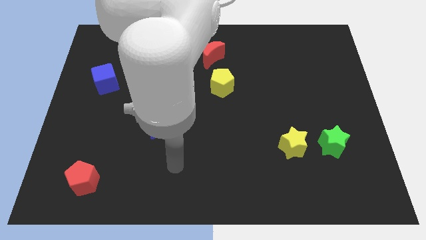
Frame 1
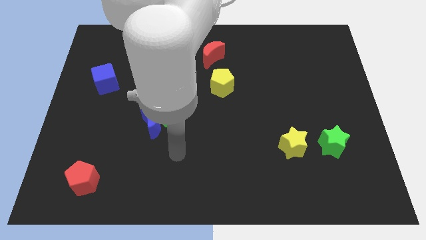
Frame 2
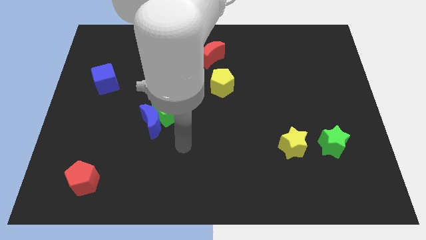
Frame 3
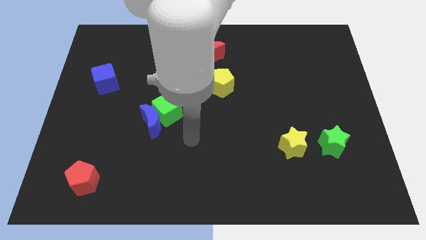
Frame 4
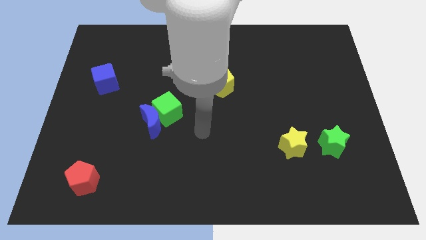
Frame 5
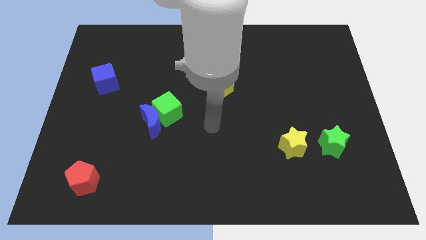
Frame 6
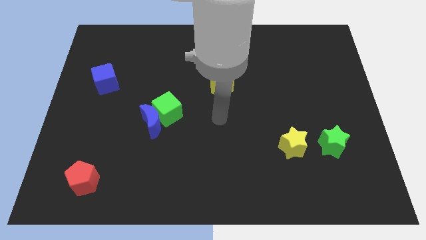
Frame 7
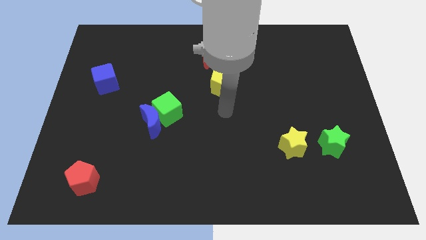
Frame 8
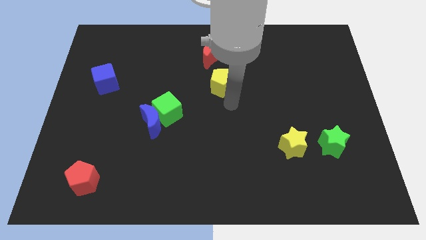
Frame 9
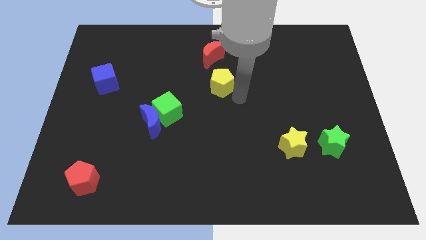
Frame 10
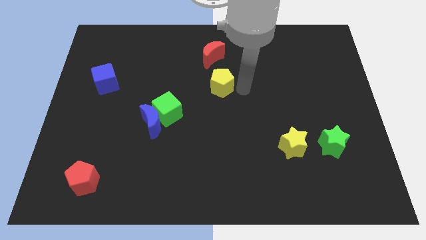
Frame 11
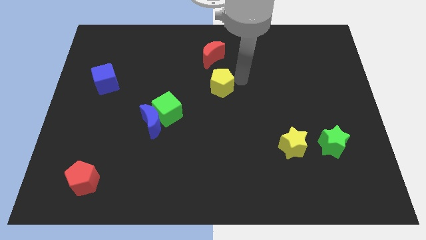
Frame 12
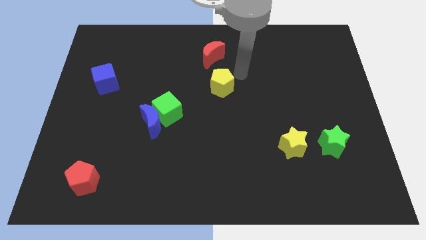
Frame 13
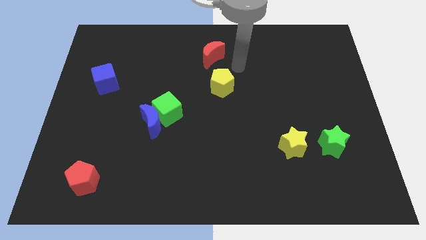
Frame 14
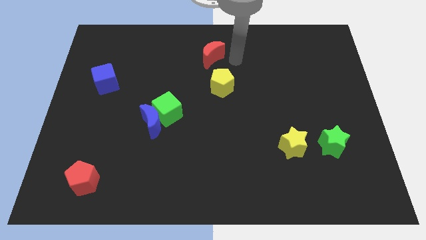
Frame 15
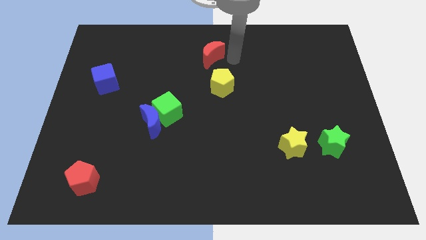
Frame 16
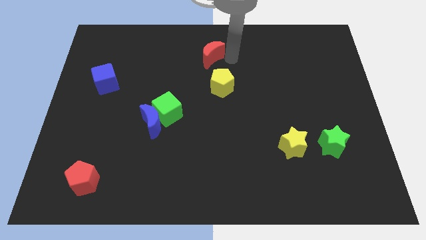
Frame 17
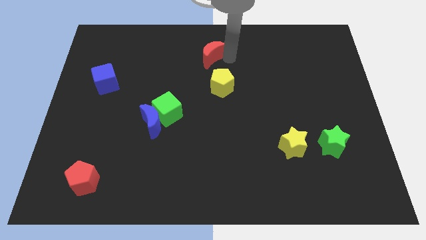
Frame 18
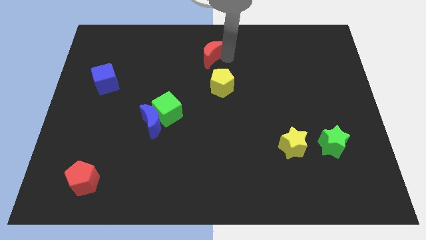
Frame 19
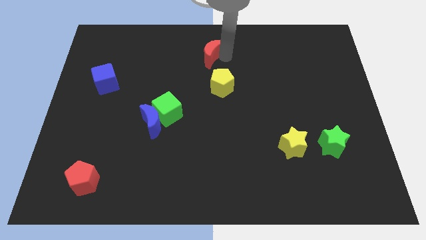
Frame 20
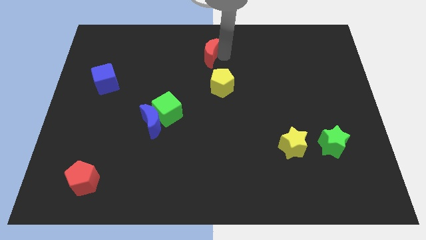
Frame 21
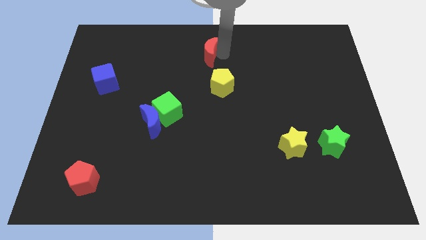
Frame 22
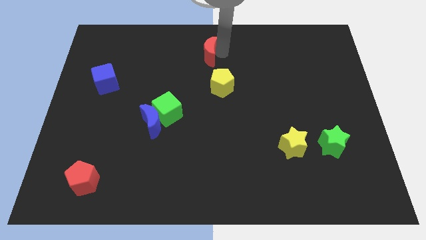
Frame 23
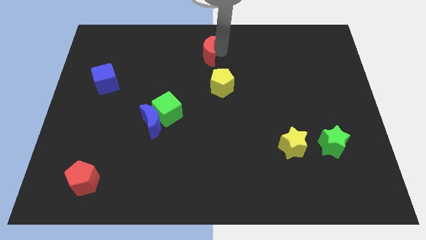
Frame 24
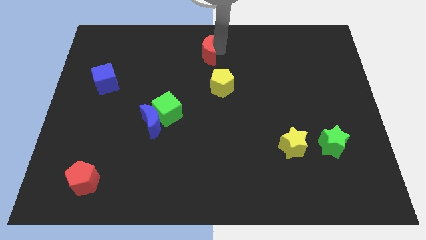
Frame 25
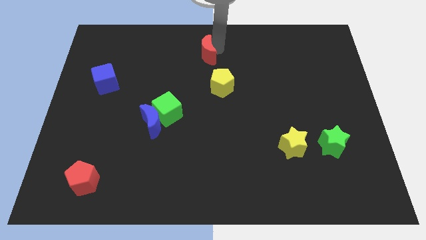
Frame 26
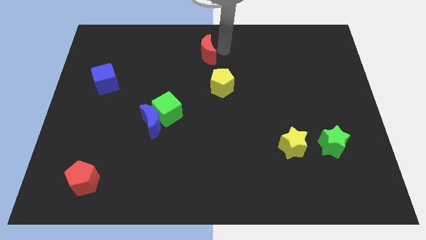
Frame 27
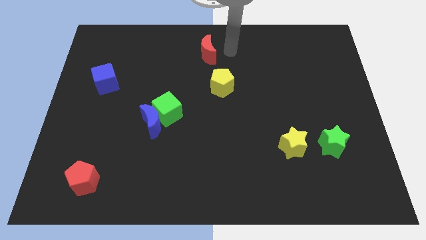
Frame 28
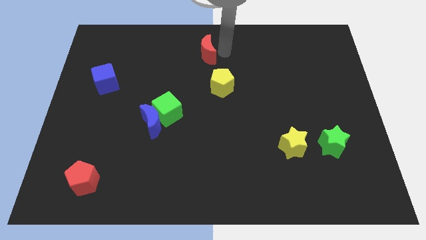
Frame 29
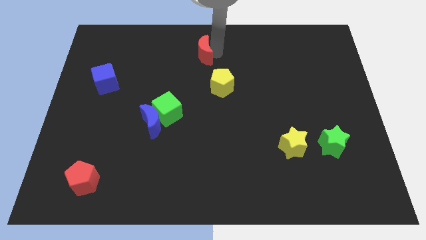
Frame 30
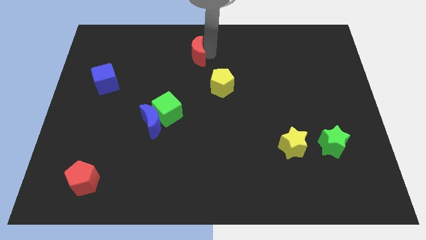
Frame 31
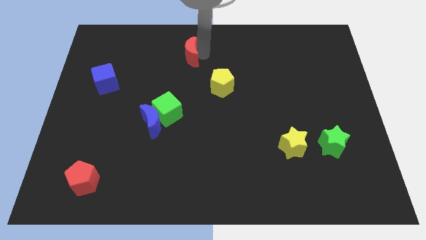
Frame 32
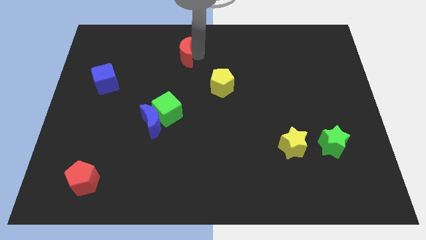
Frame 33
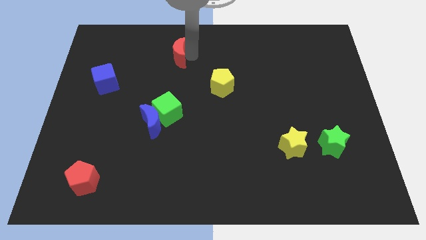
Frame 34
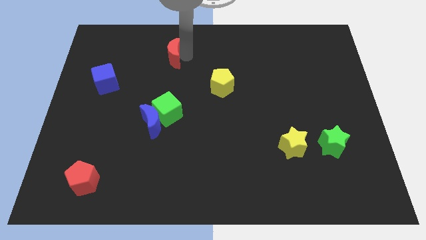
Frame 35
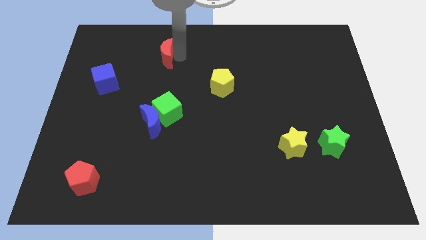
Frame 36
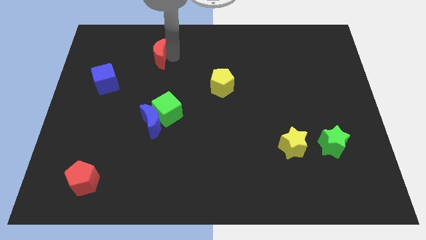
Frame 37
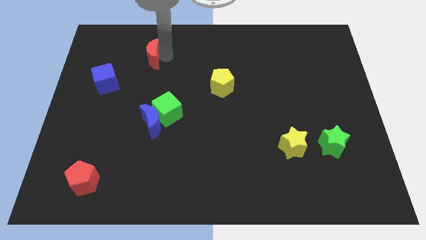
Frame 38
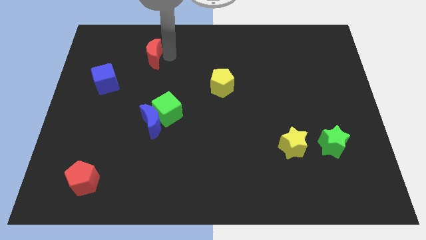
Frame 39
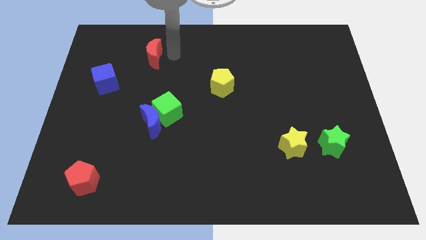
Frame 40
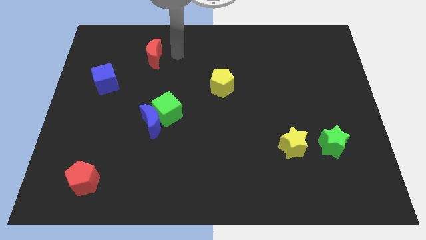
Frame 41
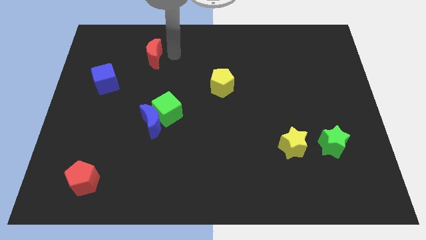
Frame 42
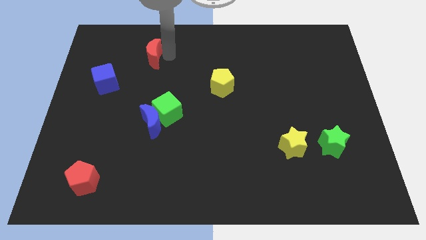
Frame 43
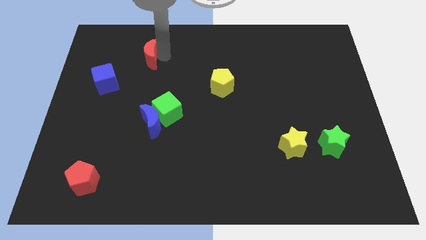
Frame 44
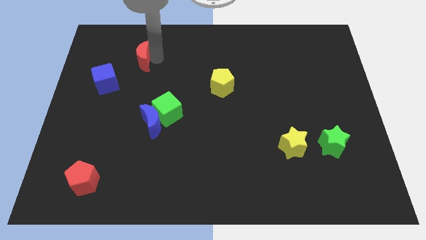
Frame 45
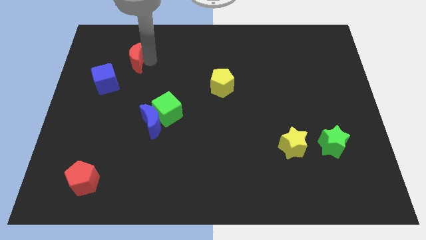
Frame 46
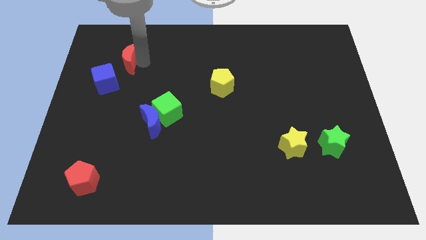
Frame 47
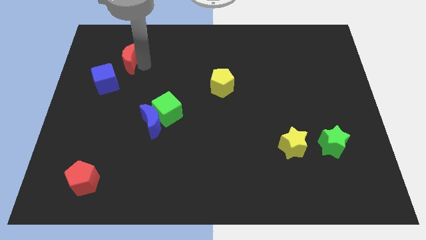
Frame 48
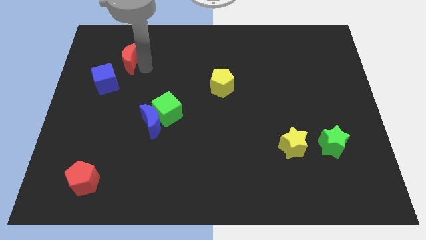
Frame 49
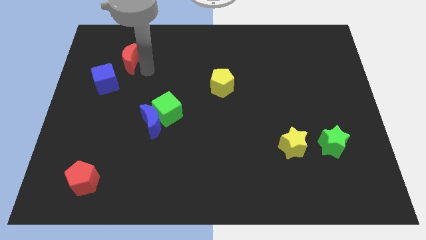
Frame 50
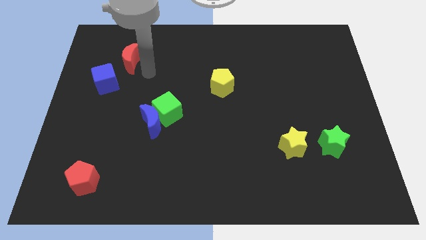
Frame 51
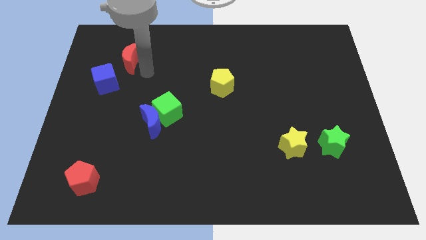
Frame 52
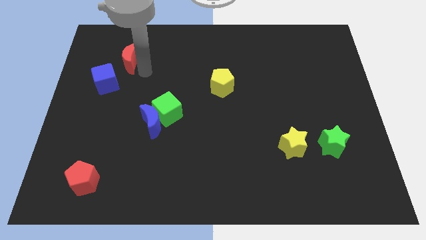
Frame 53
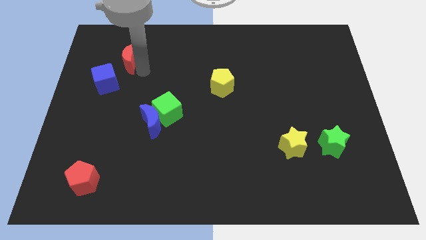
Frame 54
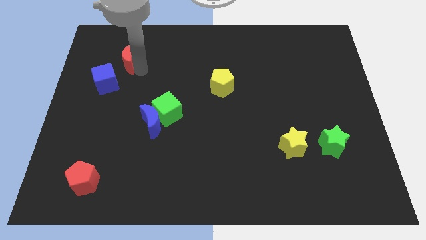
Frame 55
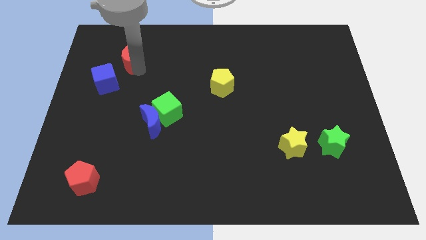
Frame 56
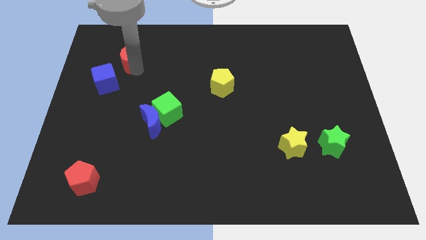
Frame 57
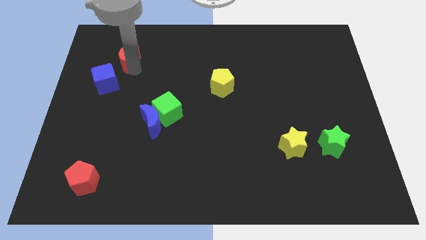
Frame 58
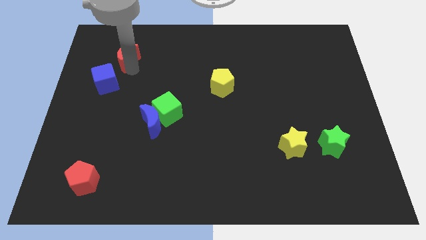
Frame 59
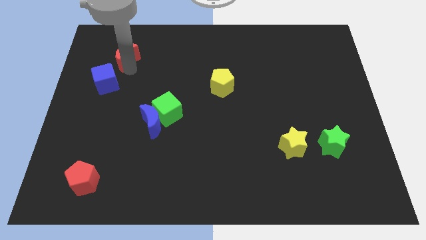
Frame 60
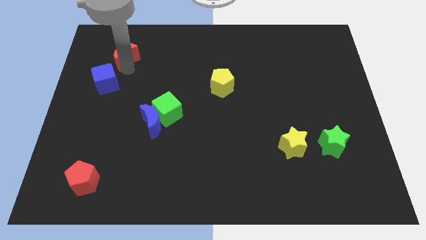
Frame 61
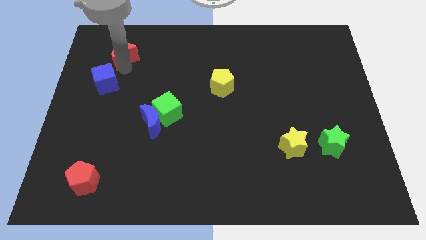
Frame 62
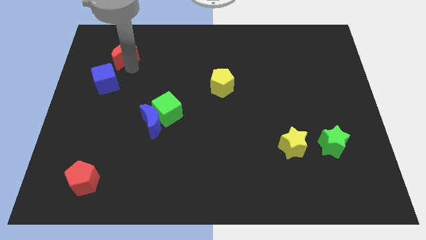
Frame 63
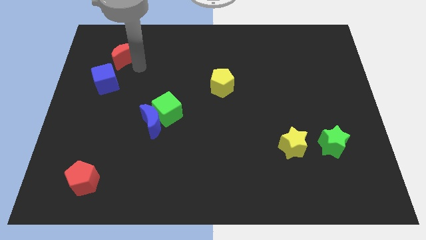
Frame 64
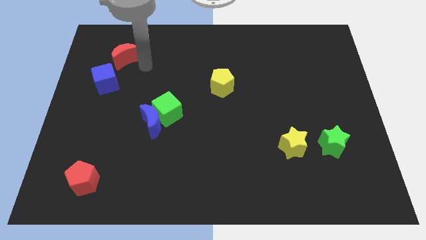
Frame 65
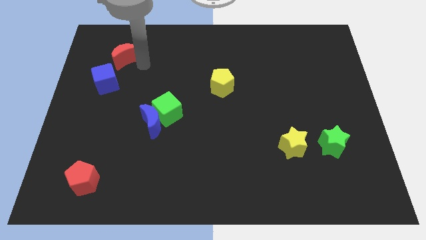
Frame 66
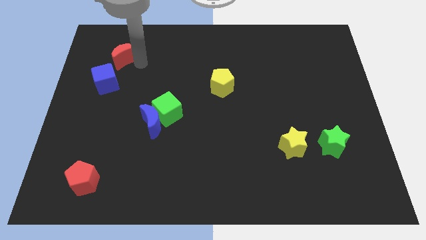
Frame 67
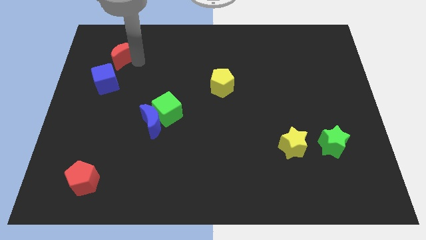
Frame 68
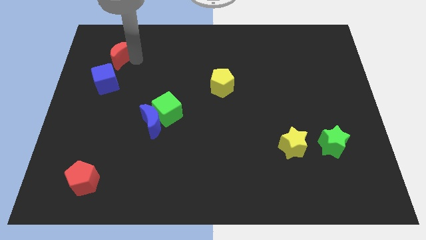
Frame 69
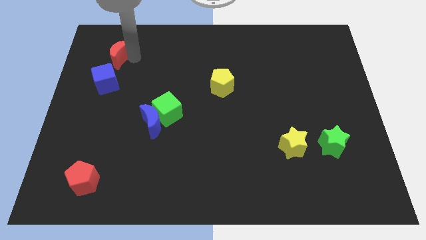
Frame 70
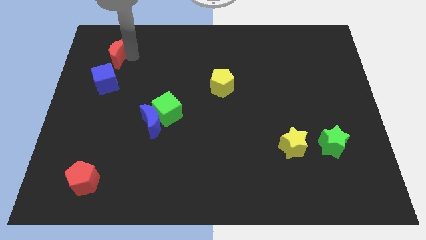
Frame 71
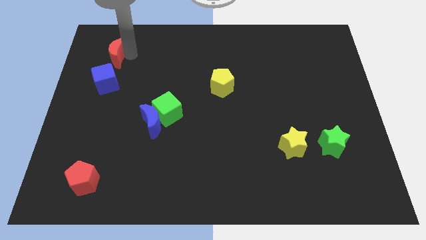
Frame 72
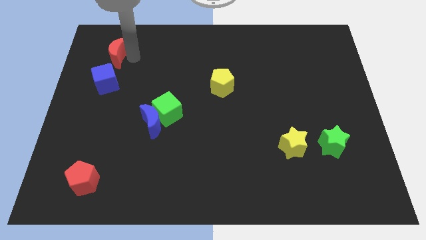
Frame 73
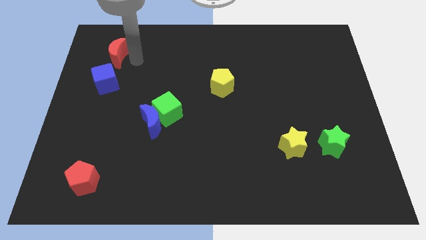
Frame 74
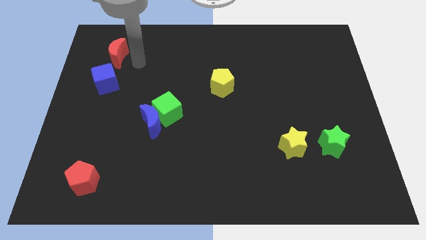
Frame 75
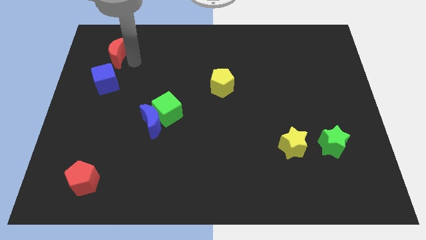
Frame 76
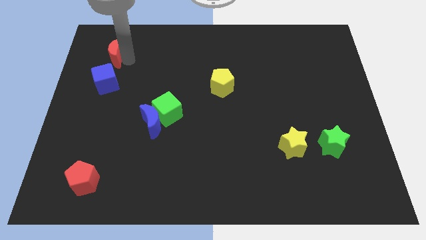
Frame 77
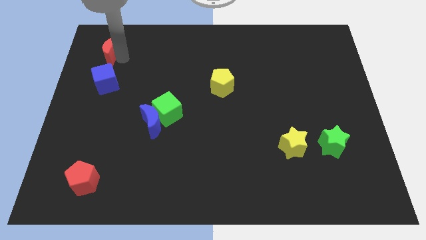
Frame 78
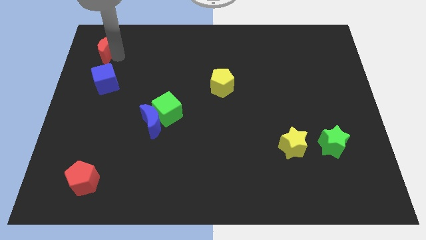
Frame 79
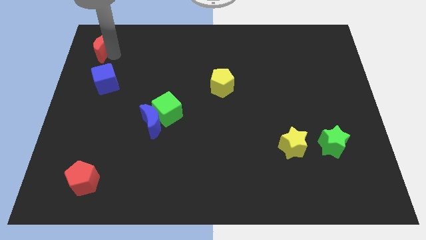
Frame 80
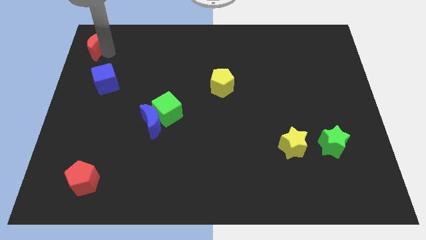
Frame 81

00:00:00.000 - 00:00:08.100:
put the red moon to the top left corner
